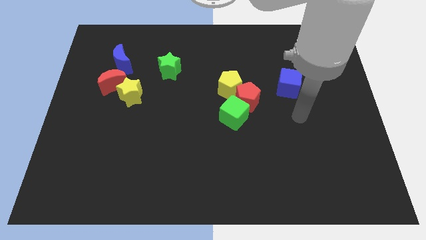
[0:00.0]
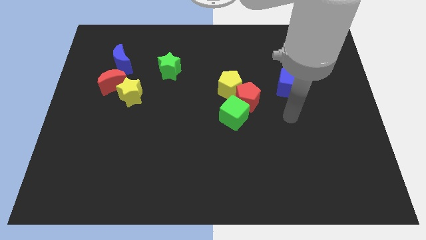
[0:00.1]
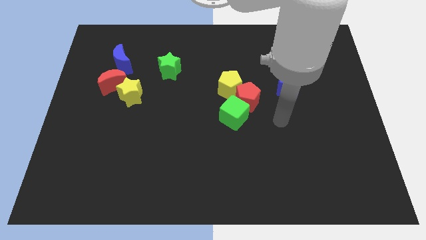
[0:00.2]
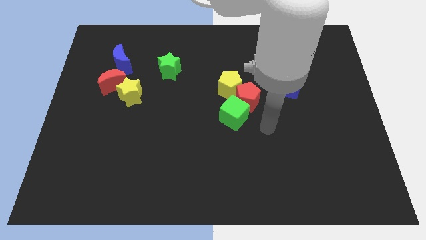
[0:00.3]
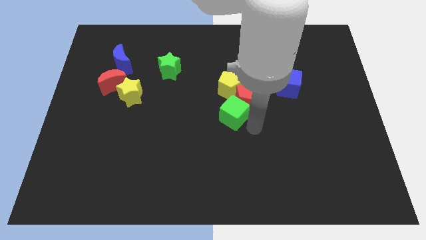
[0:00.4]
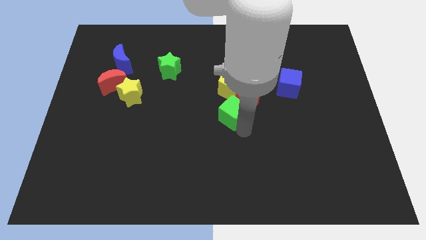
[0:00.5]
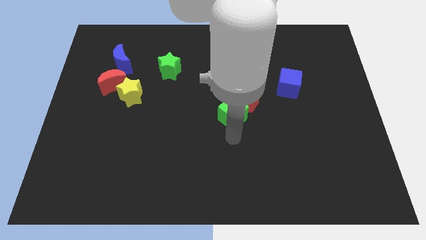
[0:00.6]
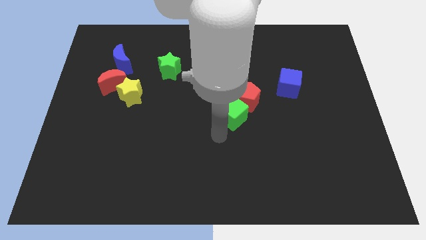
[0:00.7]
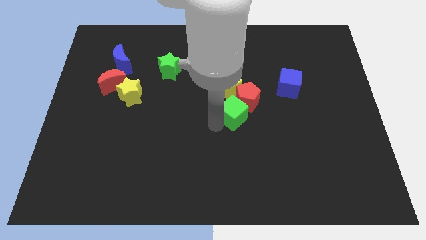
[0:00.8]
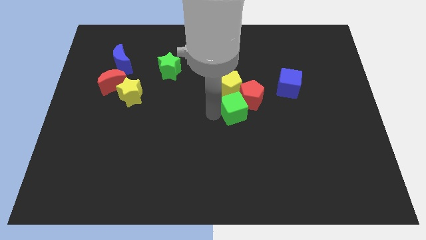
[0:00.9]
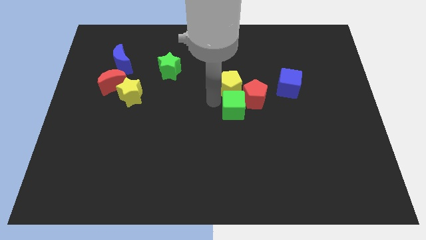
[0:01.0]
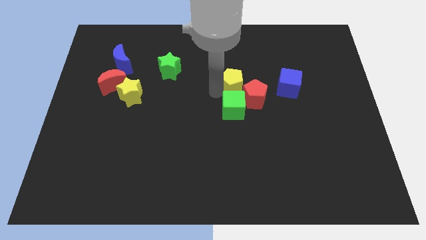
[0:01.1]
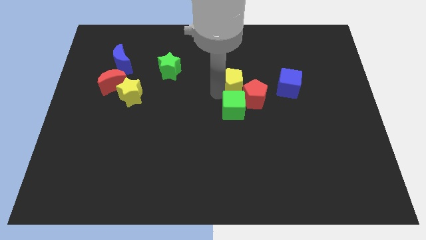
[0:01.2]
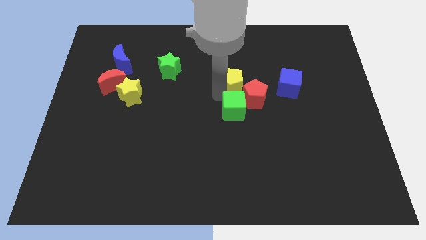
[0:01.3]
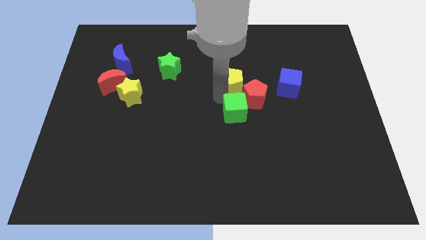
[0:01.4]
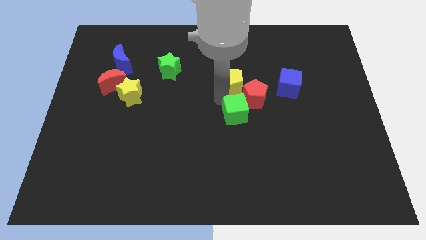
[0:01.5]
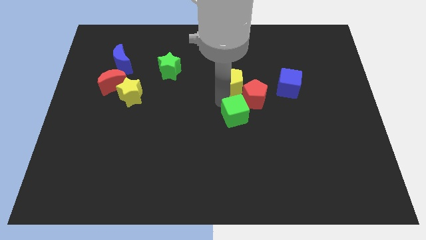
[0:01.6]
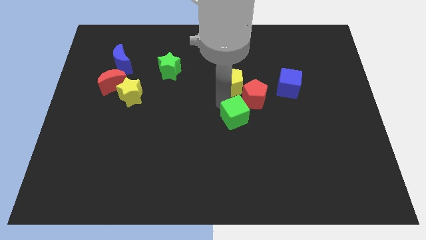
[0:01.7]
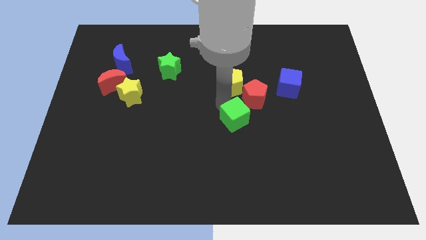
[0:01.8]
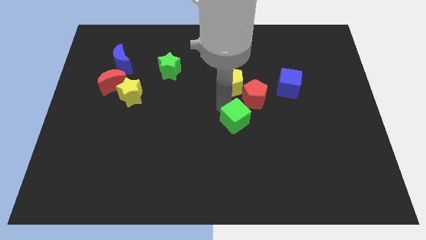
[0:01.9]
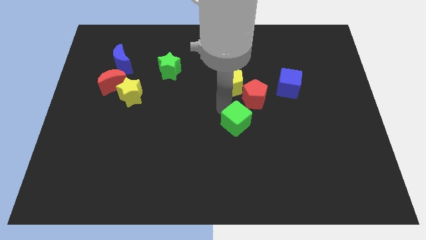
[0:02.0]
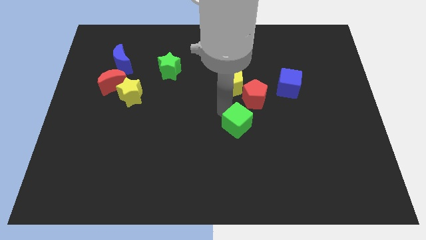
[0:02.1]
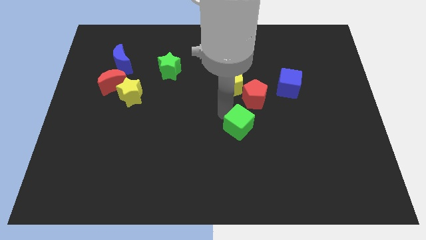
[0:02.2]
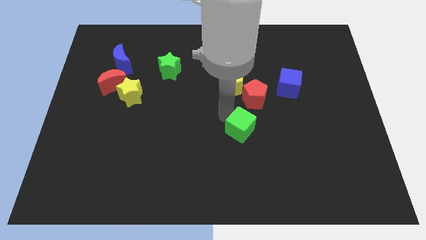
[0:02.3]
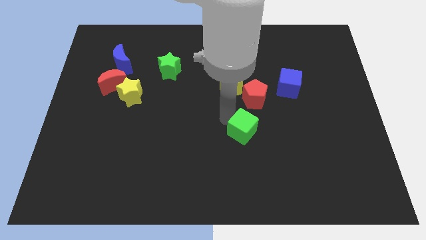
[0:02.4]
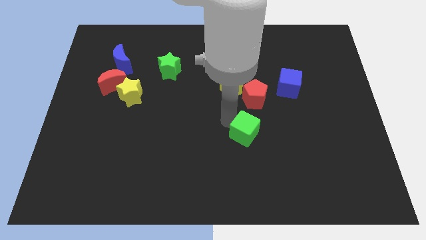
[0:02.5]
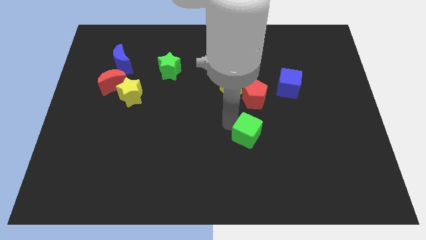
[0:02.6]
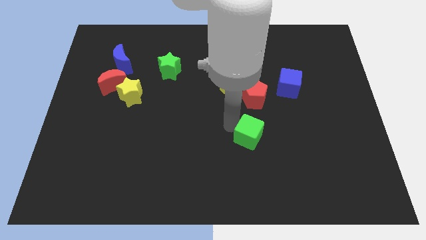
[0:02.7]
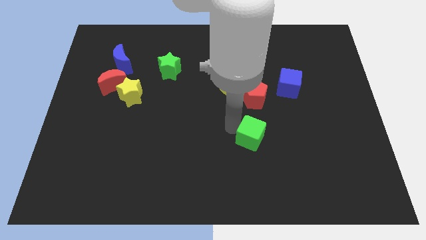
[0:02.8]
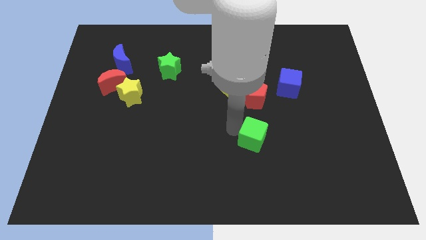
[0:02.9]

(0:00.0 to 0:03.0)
push the green cube downwards and then to the right slightly

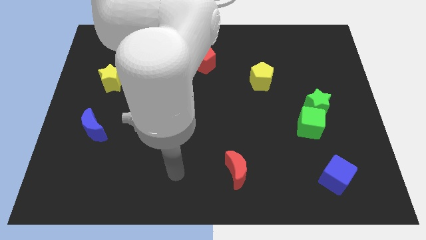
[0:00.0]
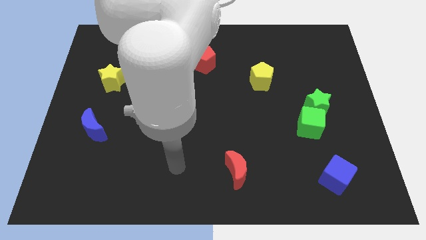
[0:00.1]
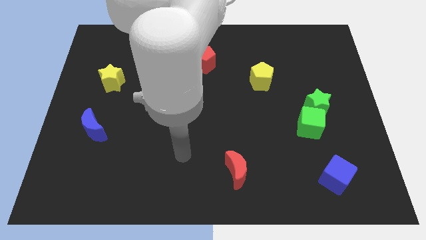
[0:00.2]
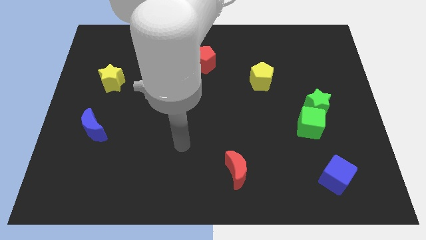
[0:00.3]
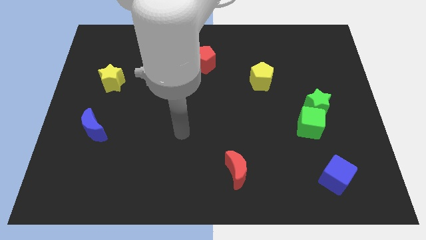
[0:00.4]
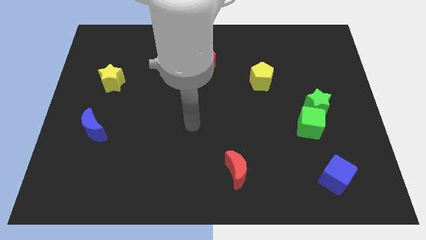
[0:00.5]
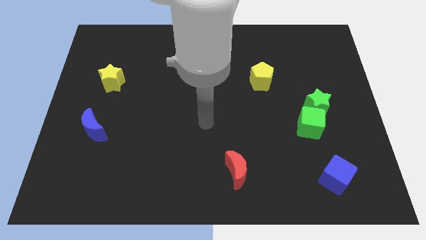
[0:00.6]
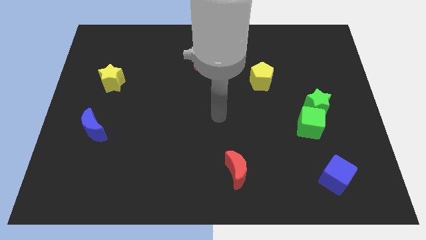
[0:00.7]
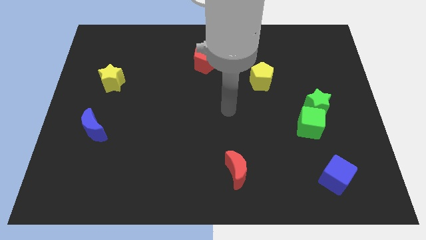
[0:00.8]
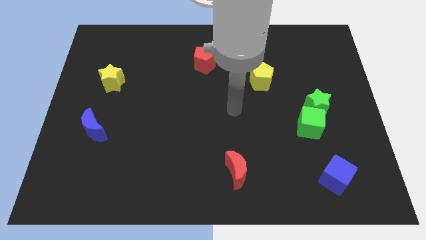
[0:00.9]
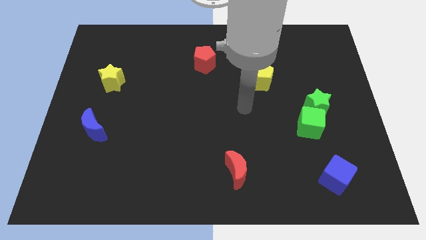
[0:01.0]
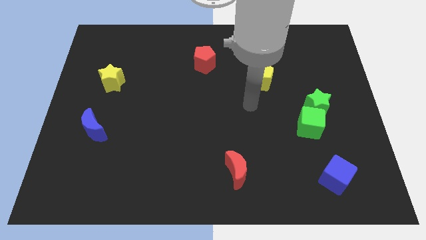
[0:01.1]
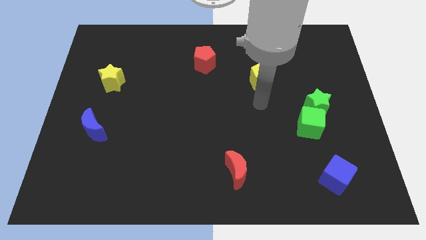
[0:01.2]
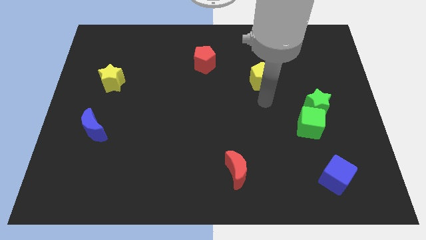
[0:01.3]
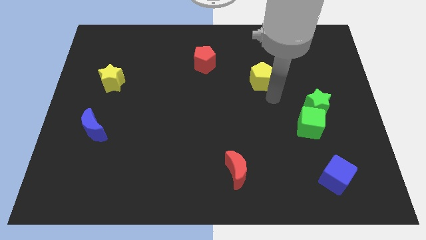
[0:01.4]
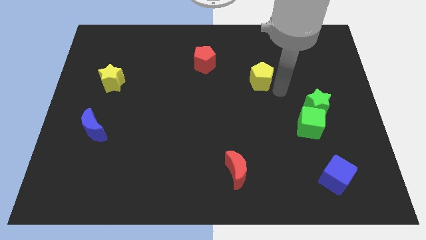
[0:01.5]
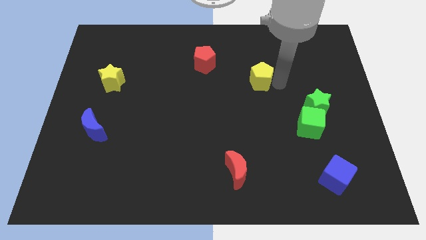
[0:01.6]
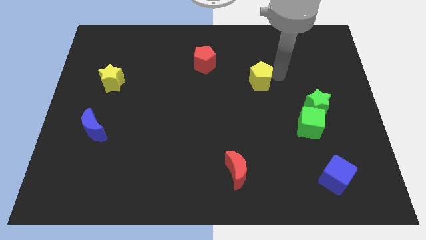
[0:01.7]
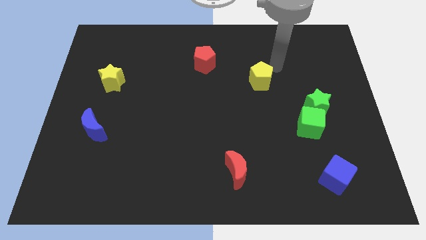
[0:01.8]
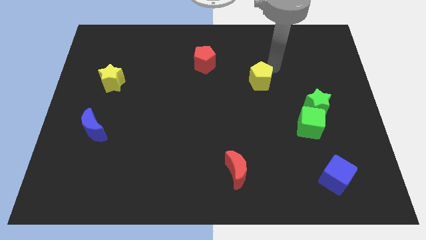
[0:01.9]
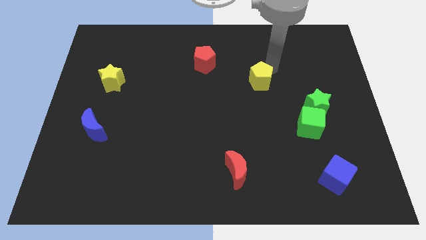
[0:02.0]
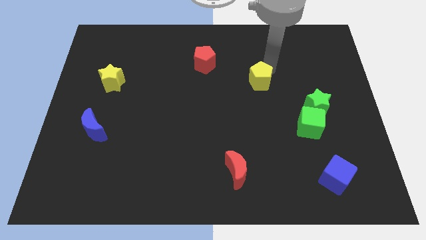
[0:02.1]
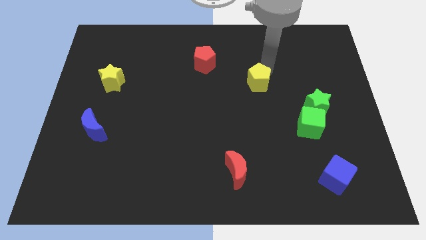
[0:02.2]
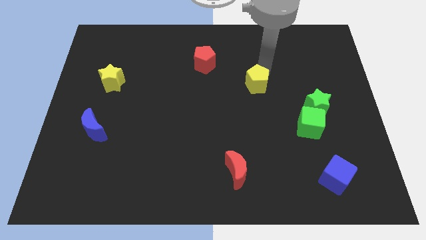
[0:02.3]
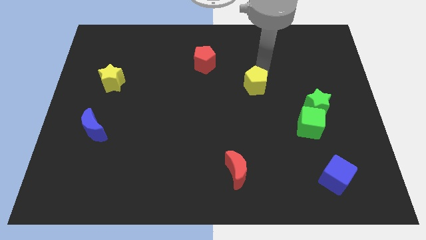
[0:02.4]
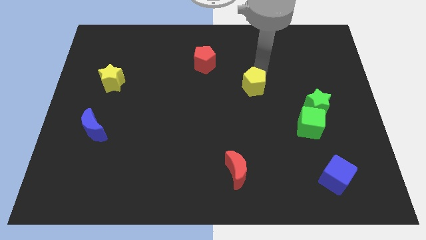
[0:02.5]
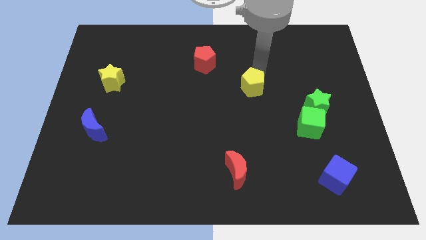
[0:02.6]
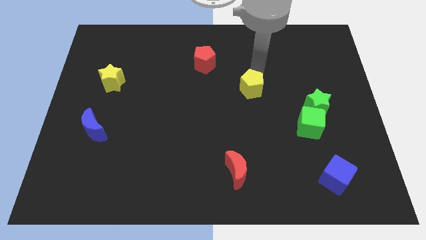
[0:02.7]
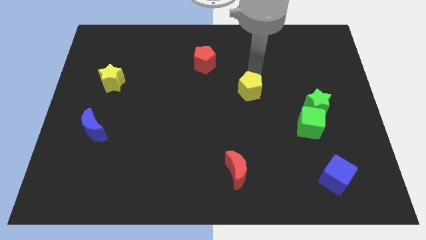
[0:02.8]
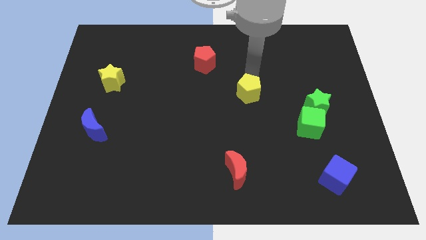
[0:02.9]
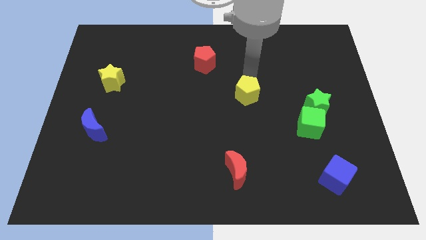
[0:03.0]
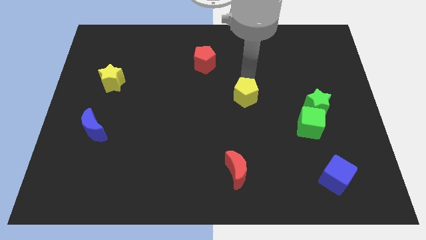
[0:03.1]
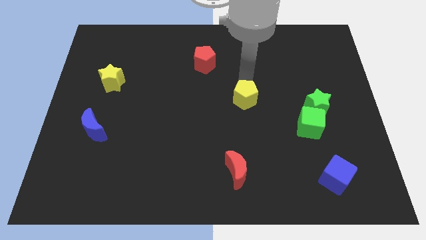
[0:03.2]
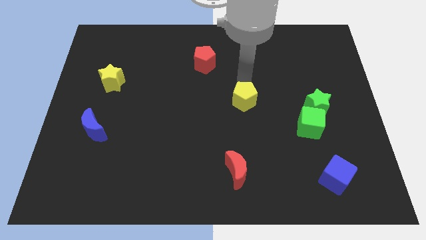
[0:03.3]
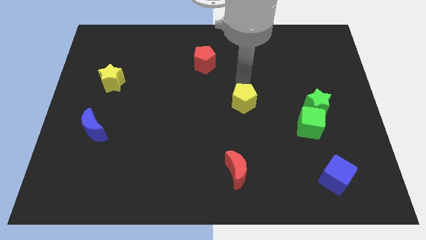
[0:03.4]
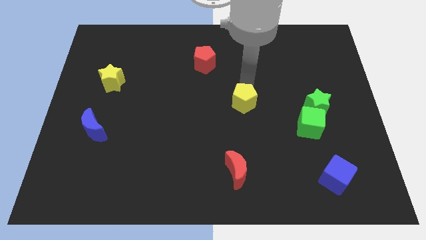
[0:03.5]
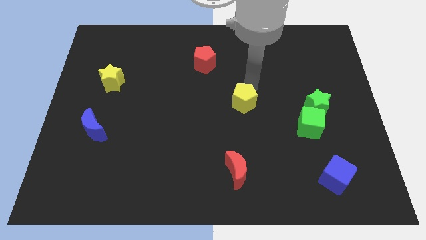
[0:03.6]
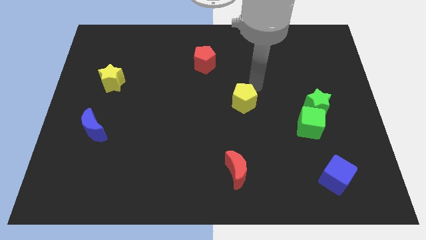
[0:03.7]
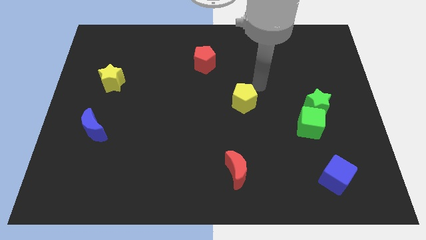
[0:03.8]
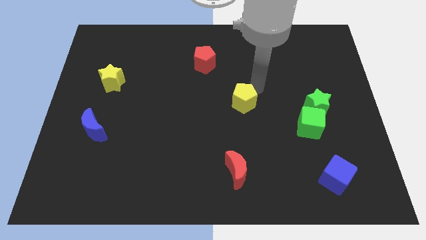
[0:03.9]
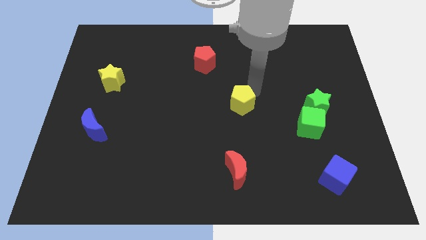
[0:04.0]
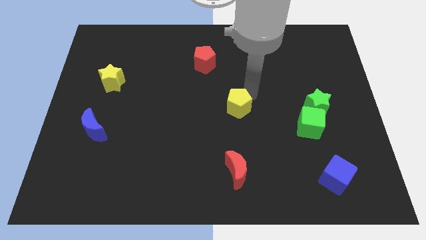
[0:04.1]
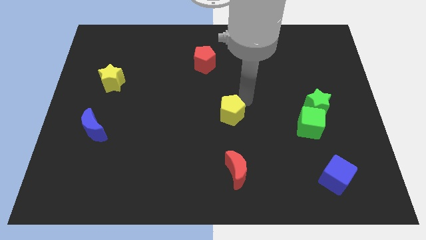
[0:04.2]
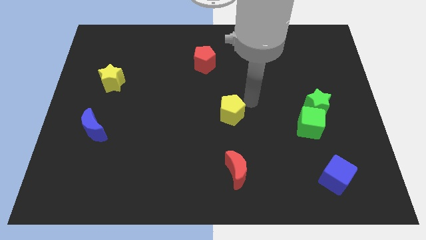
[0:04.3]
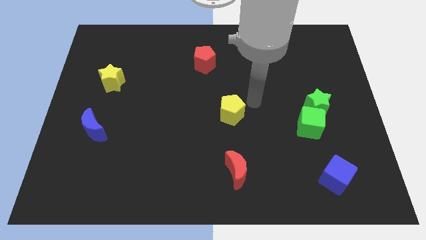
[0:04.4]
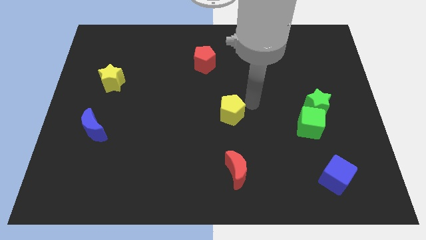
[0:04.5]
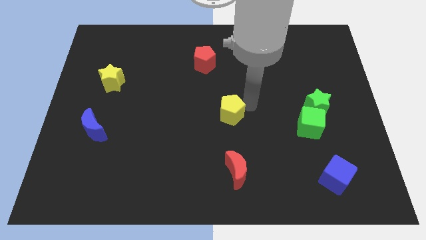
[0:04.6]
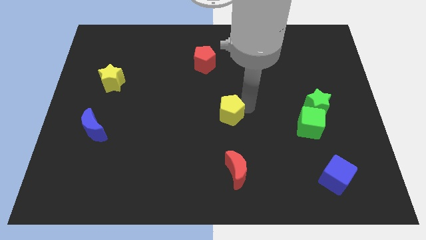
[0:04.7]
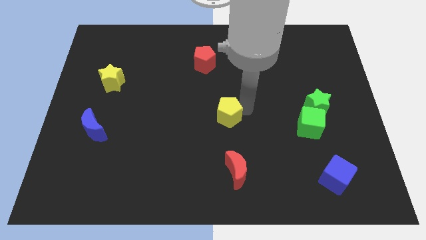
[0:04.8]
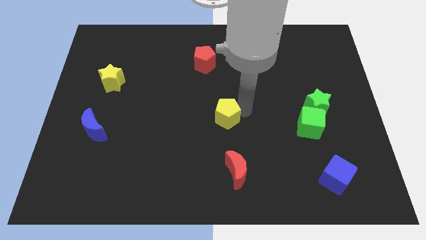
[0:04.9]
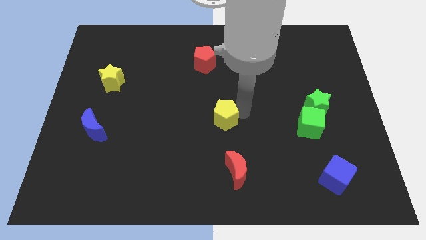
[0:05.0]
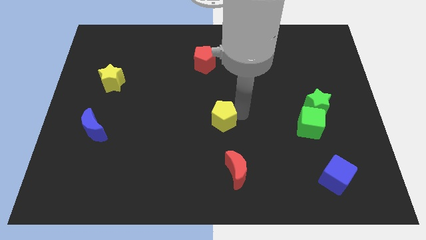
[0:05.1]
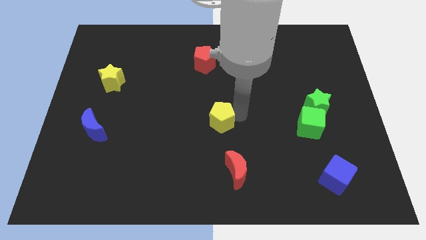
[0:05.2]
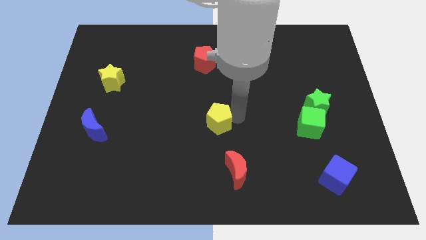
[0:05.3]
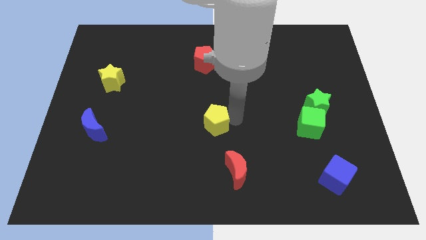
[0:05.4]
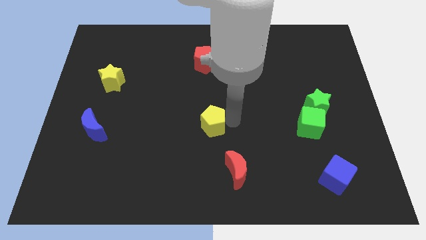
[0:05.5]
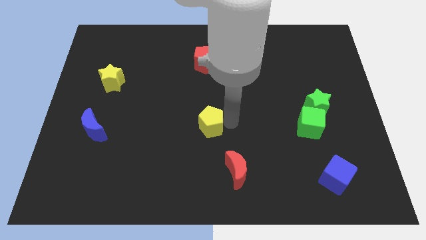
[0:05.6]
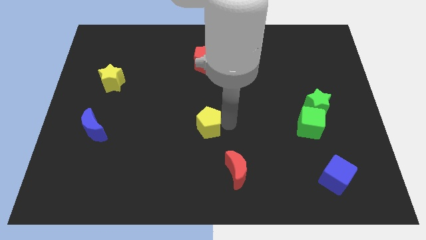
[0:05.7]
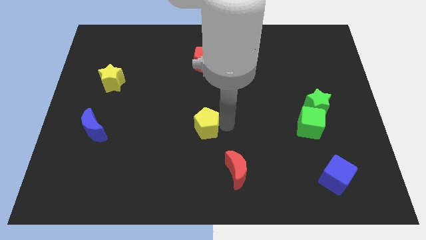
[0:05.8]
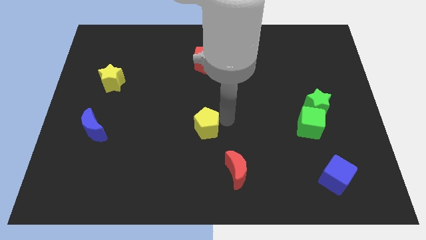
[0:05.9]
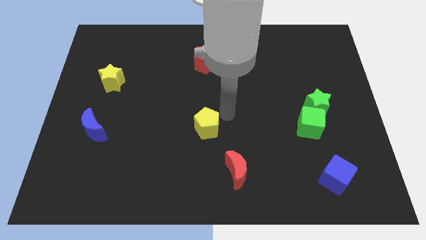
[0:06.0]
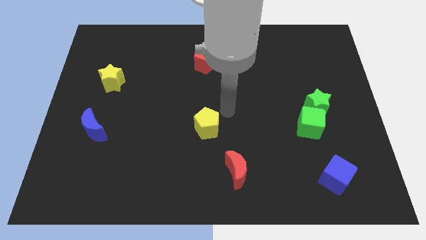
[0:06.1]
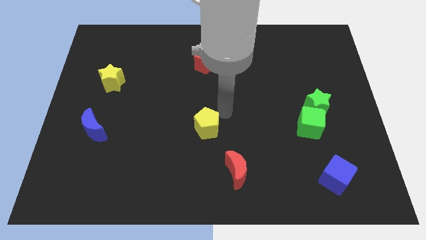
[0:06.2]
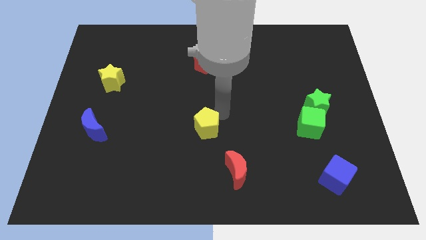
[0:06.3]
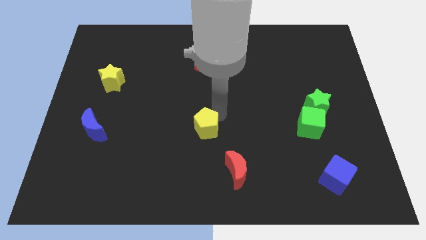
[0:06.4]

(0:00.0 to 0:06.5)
move the yellow pentagon downwards and left diagonally
